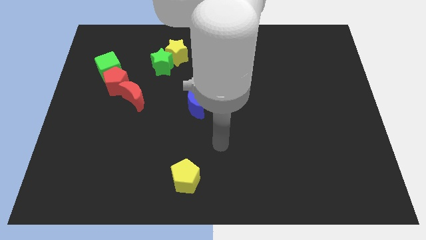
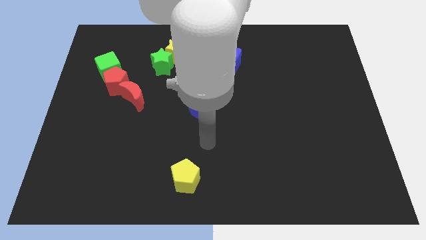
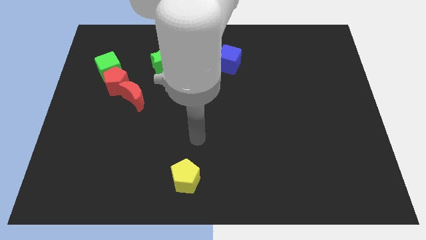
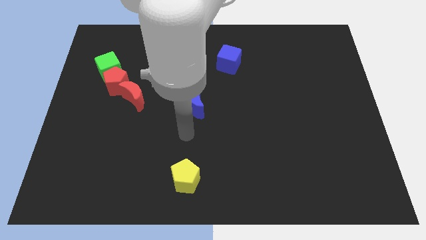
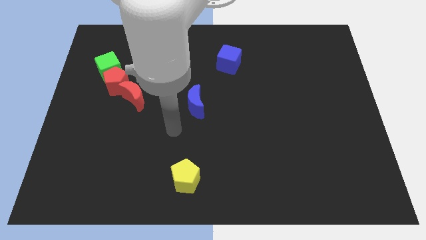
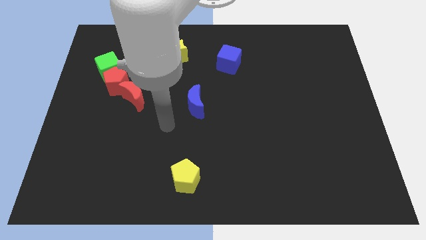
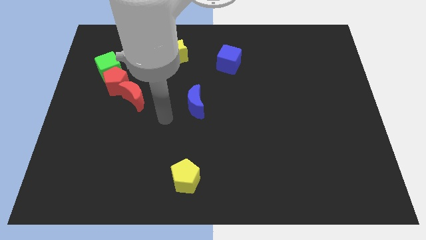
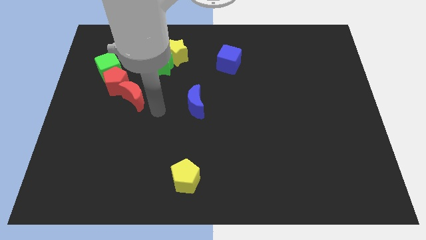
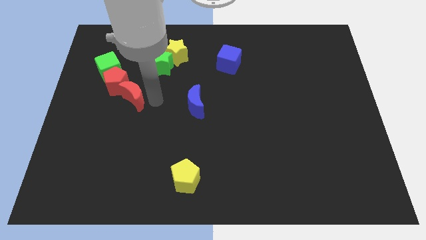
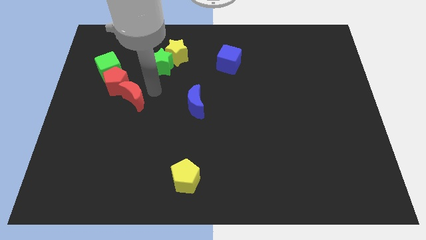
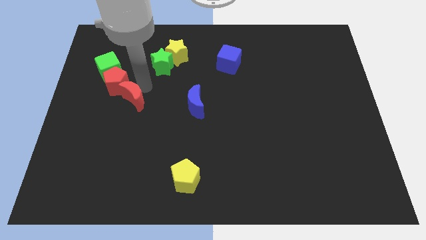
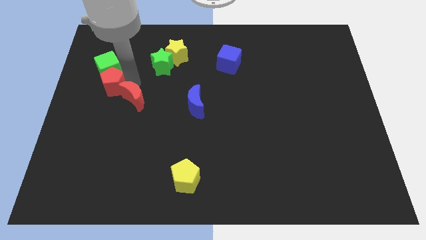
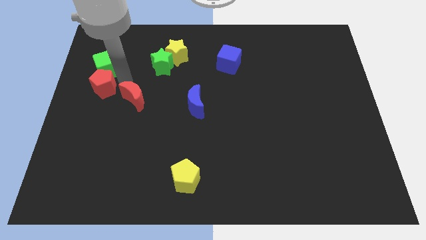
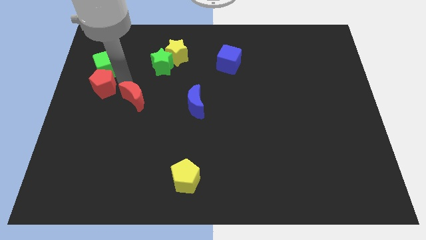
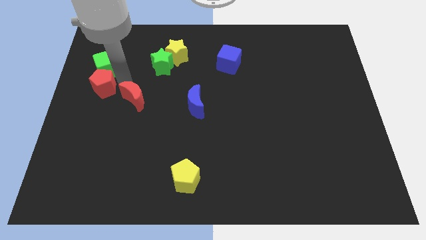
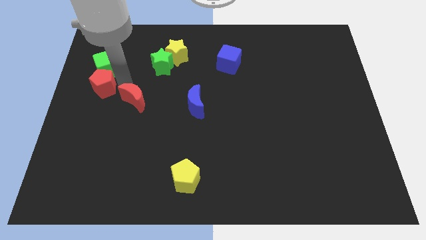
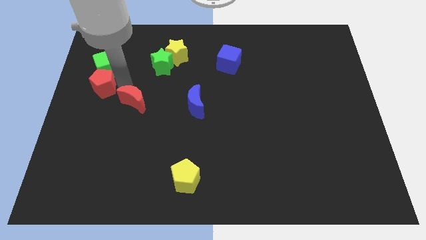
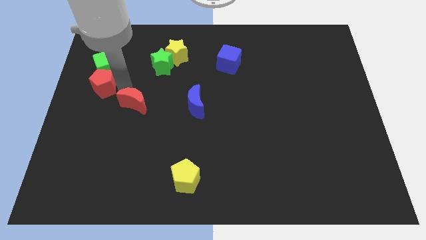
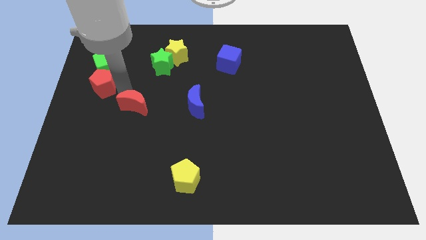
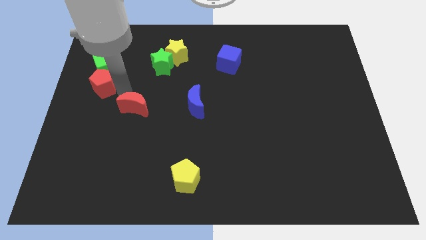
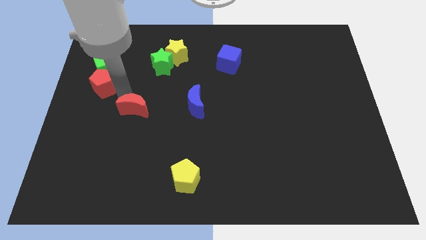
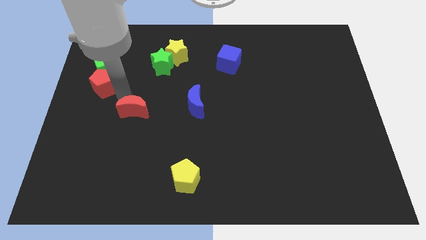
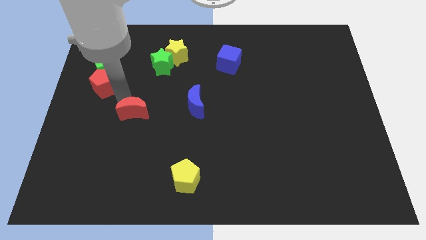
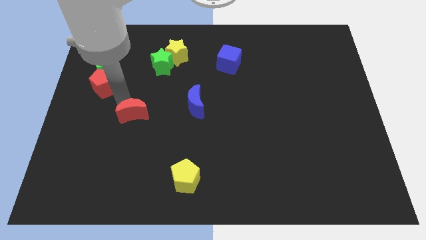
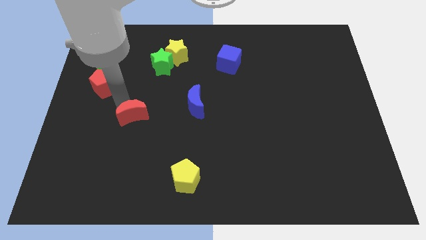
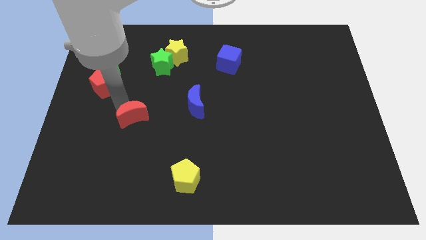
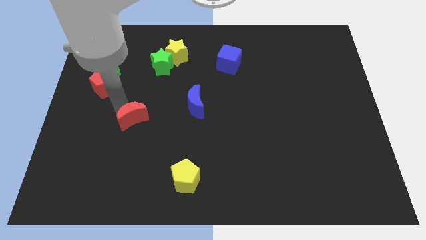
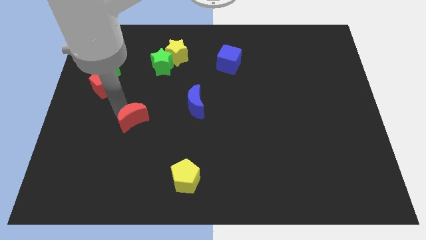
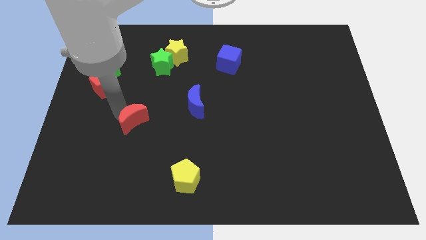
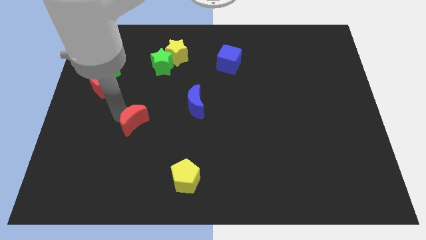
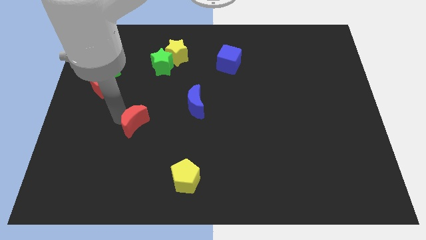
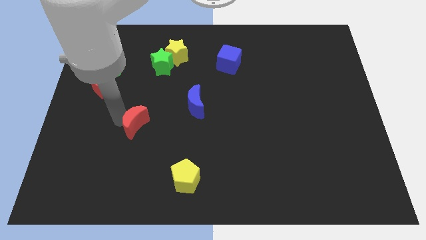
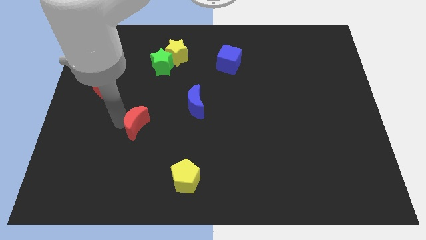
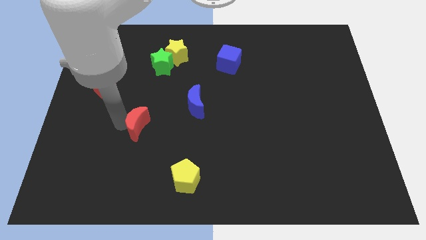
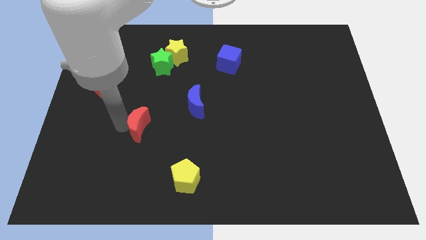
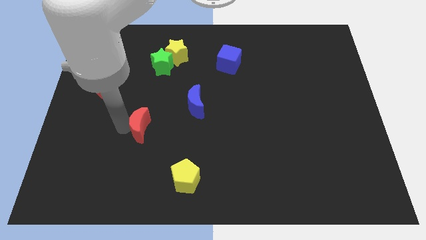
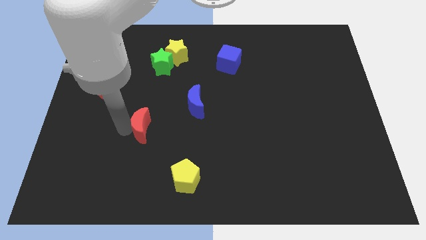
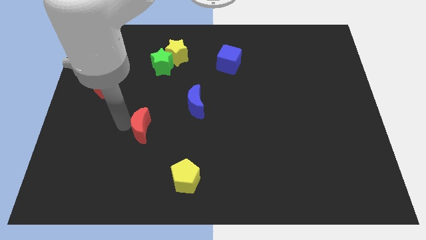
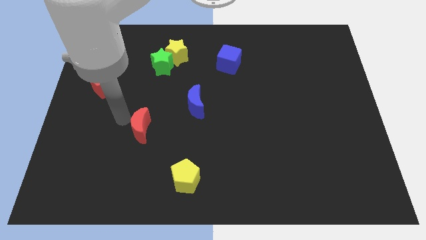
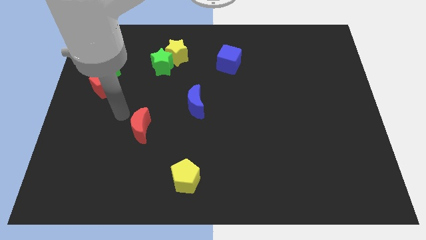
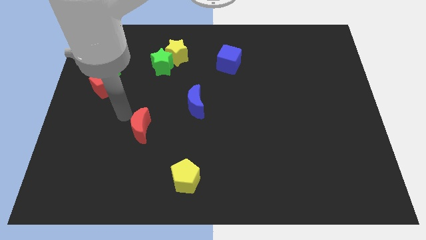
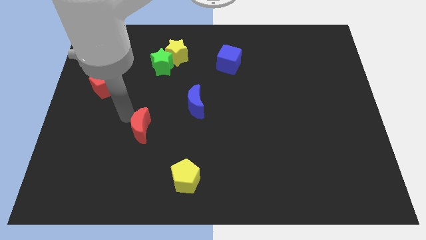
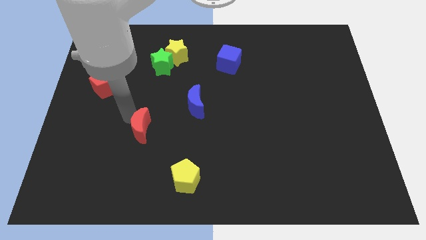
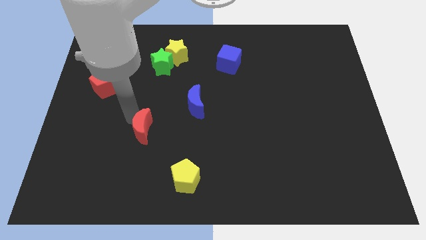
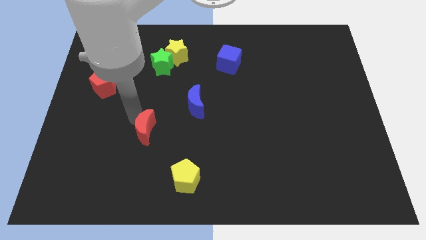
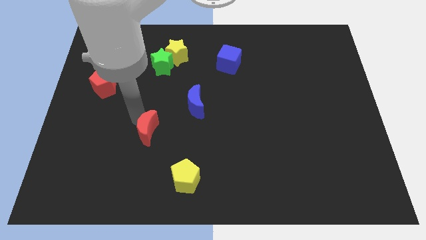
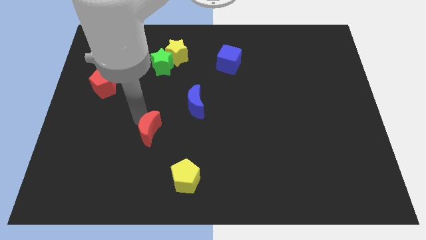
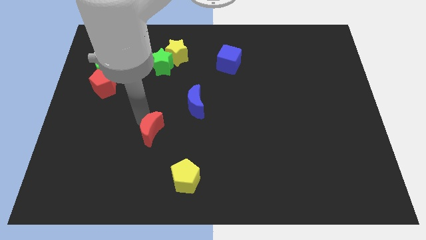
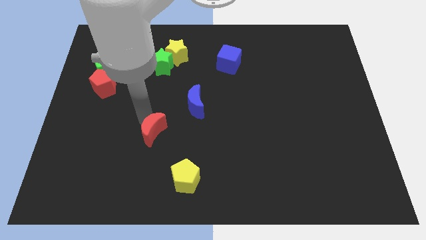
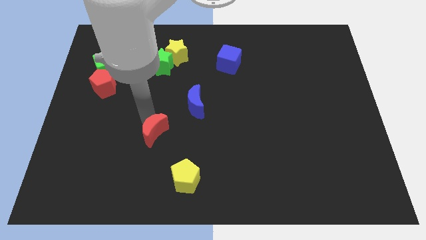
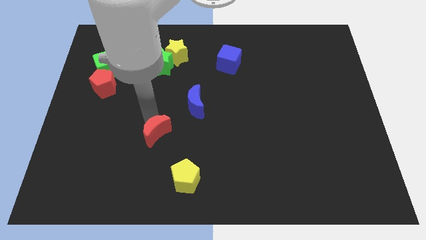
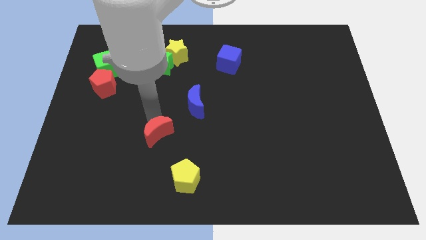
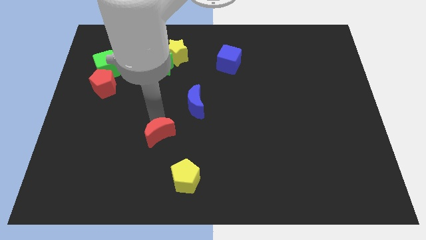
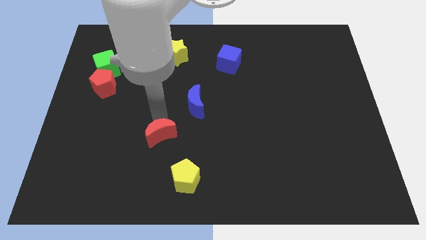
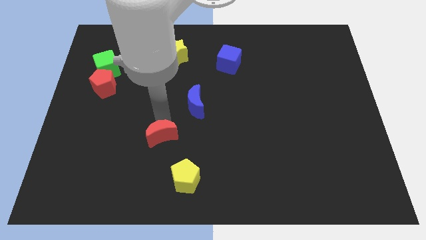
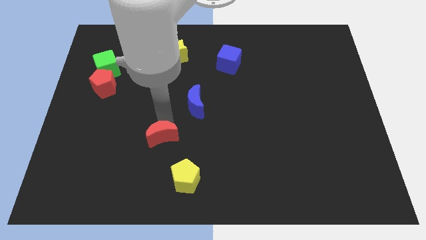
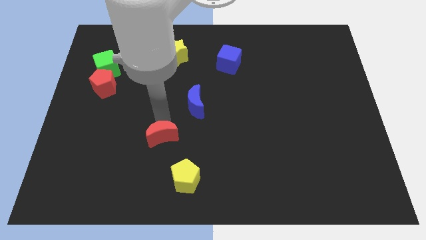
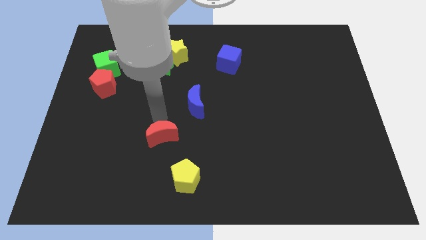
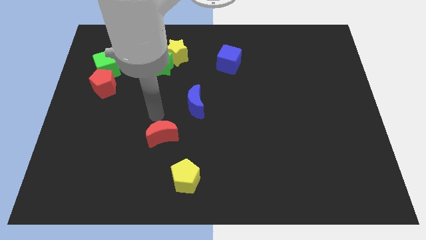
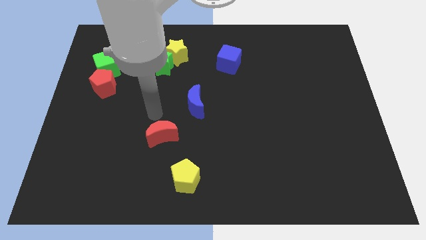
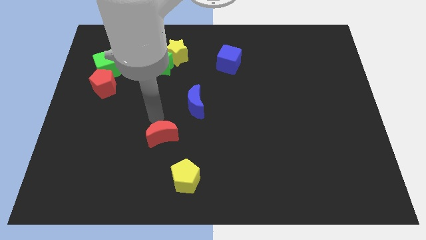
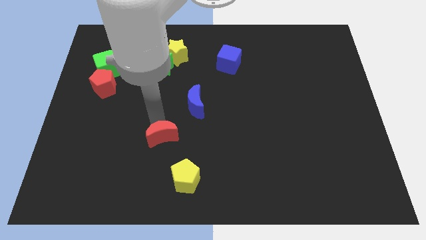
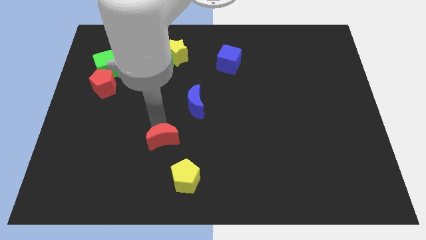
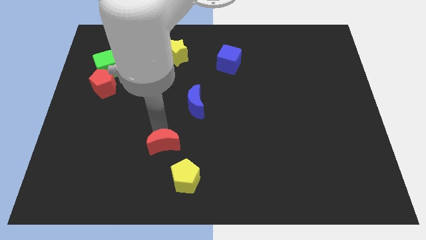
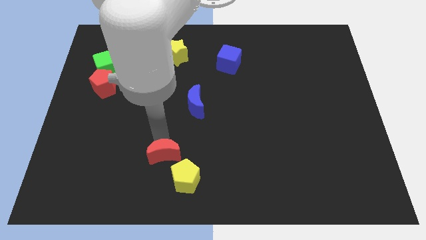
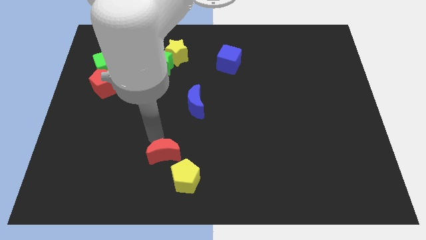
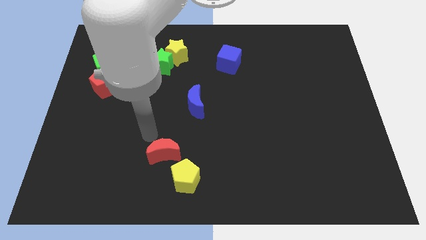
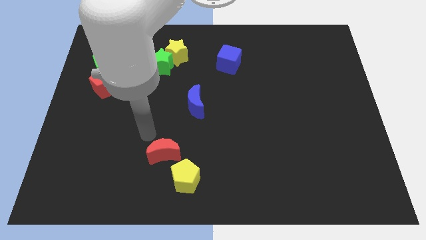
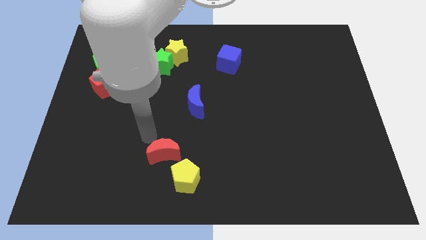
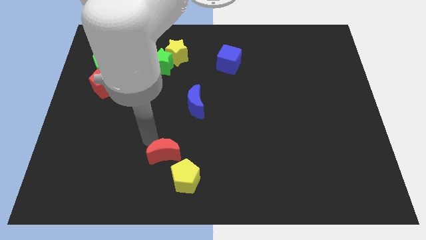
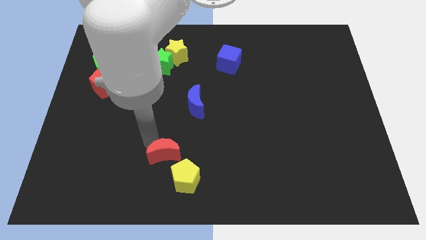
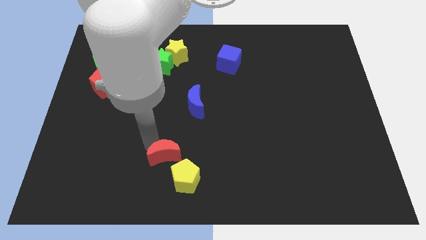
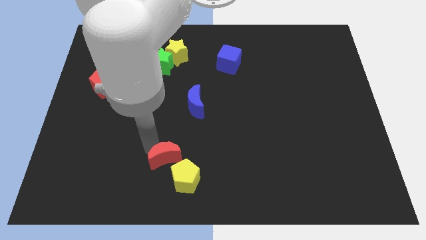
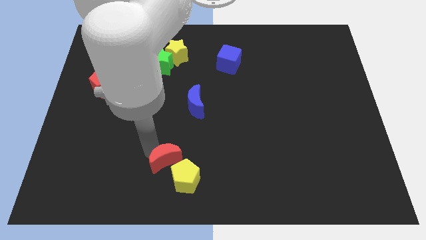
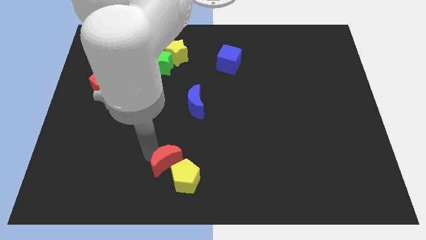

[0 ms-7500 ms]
move the red moon close to the yellow pentagon
